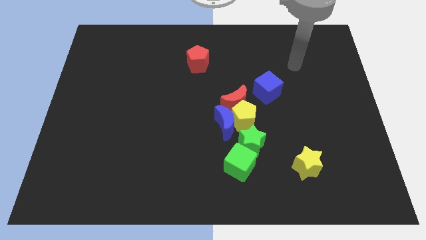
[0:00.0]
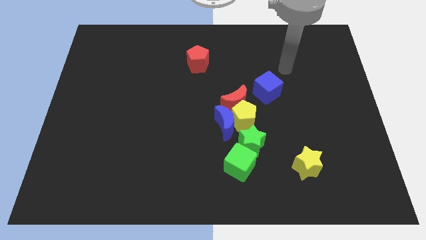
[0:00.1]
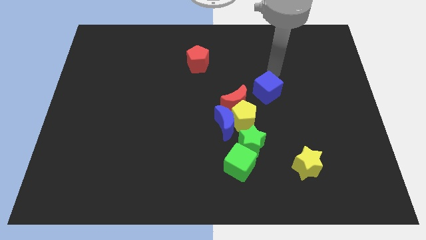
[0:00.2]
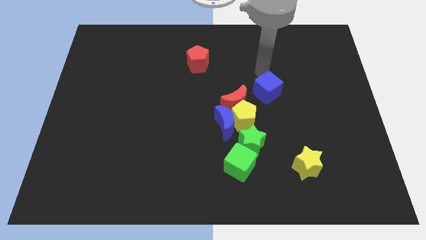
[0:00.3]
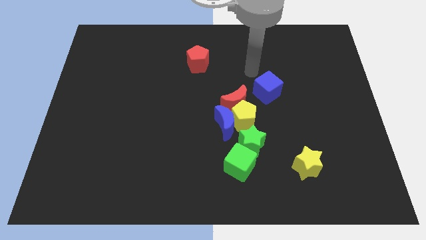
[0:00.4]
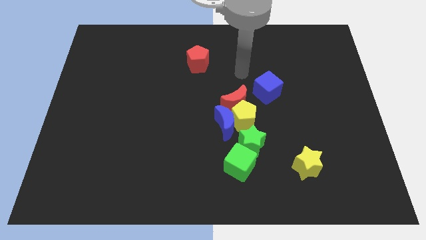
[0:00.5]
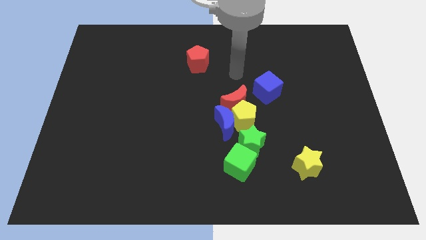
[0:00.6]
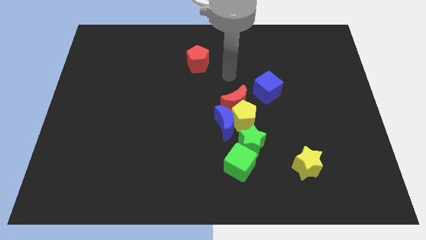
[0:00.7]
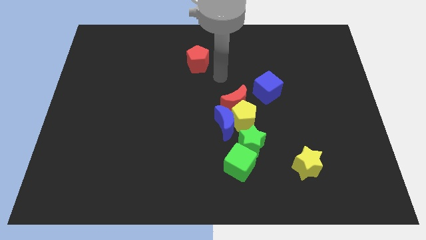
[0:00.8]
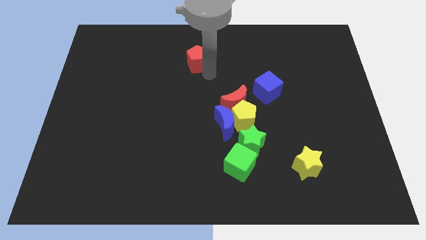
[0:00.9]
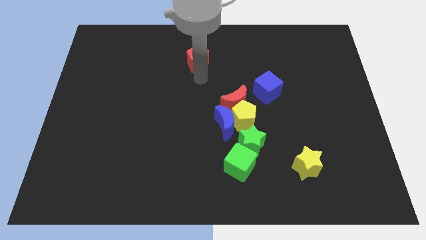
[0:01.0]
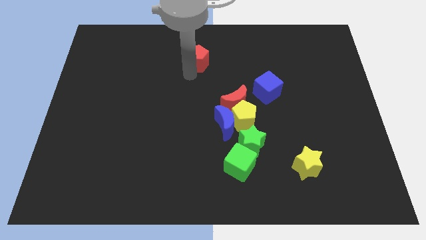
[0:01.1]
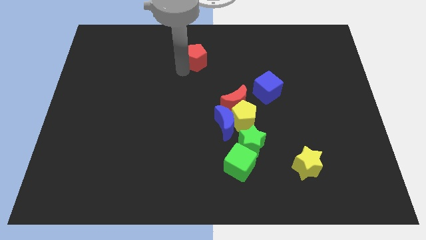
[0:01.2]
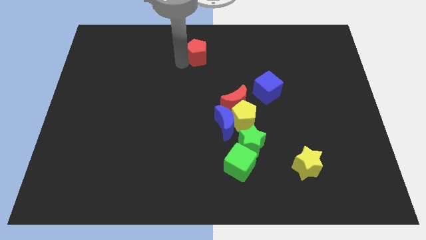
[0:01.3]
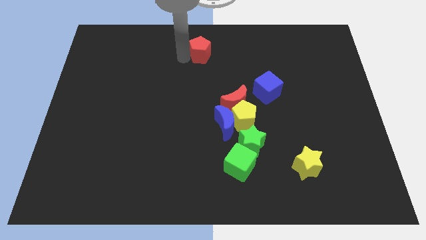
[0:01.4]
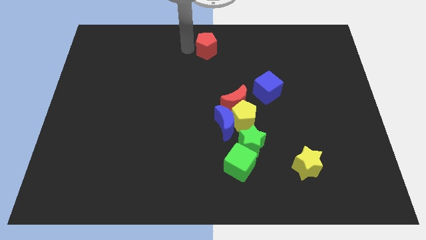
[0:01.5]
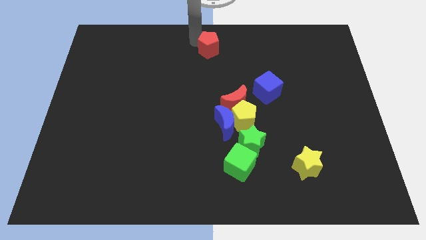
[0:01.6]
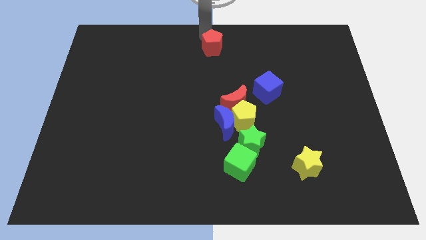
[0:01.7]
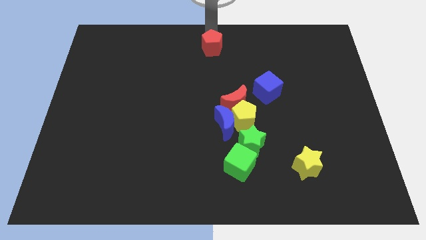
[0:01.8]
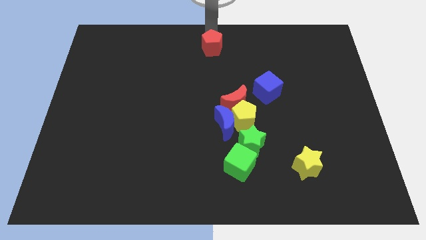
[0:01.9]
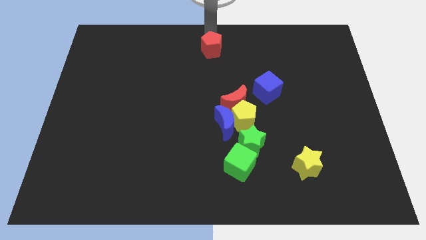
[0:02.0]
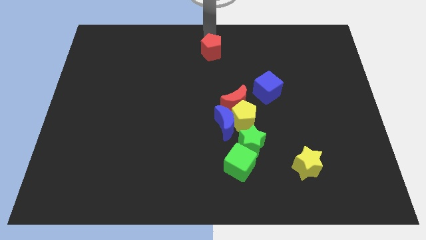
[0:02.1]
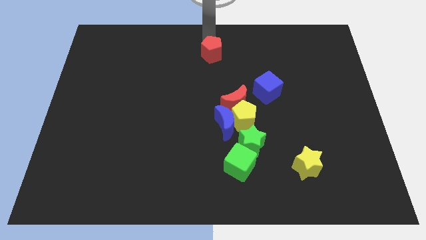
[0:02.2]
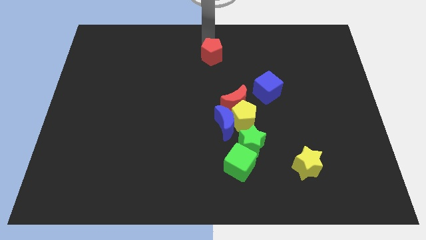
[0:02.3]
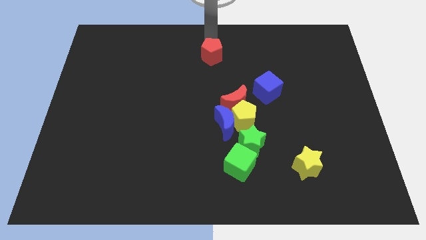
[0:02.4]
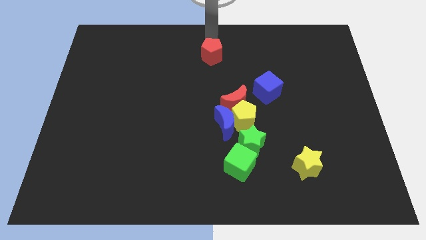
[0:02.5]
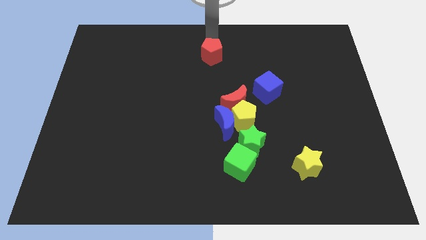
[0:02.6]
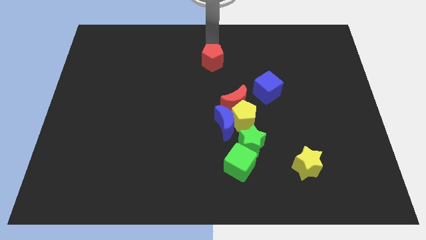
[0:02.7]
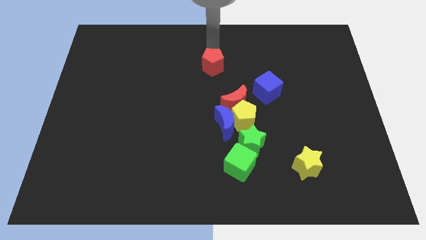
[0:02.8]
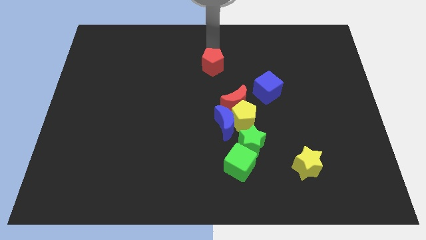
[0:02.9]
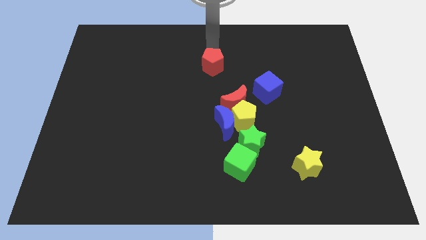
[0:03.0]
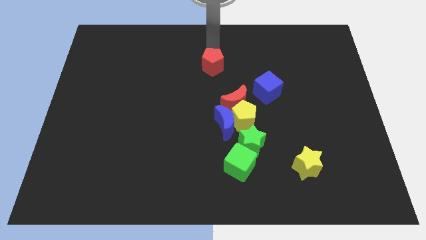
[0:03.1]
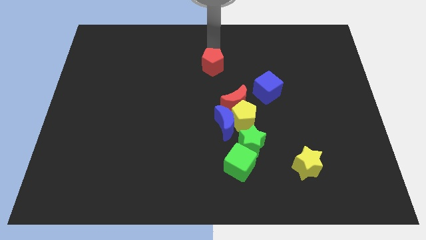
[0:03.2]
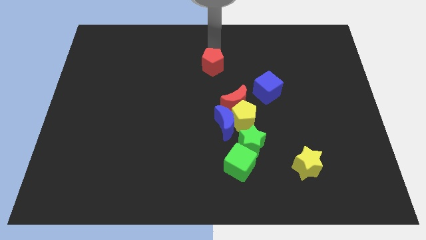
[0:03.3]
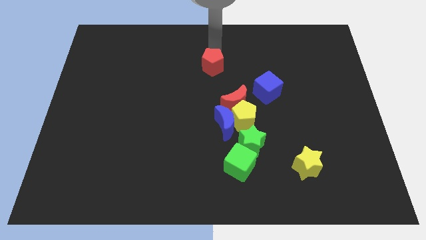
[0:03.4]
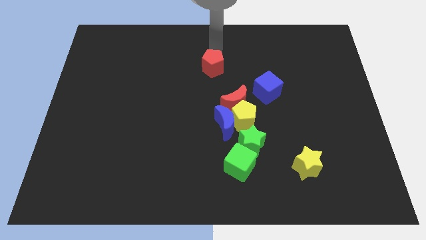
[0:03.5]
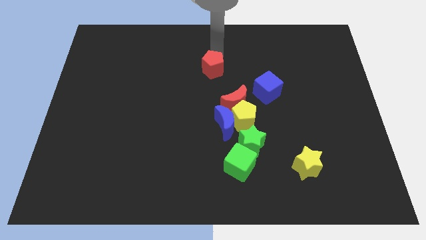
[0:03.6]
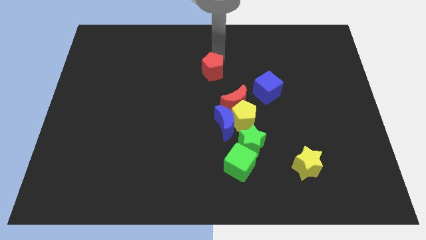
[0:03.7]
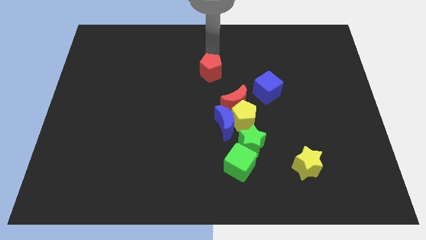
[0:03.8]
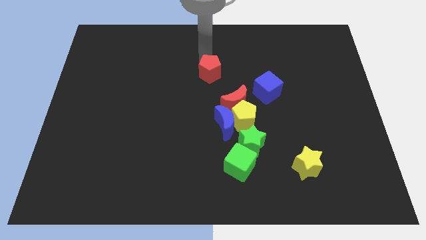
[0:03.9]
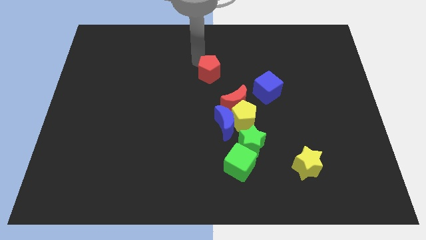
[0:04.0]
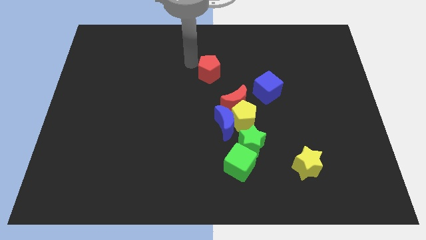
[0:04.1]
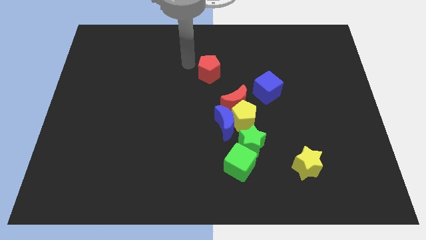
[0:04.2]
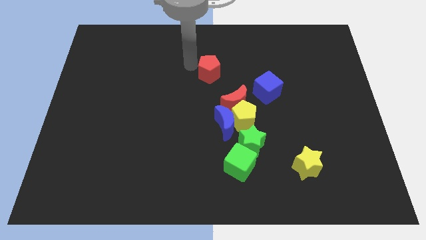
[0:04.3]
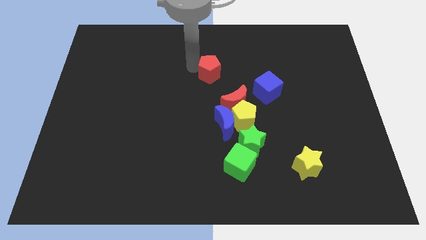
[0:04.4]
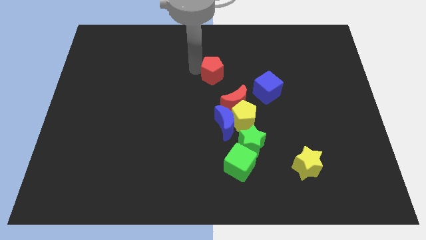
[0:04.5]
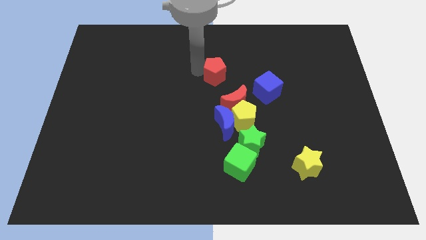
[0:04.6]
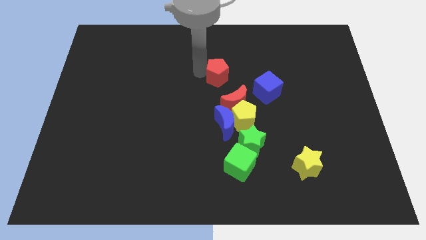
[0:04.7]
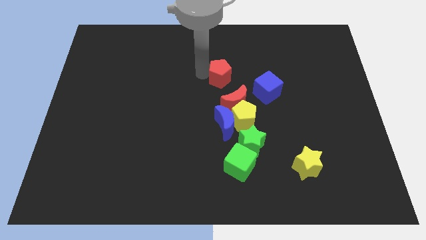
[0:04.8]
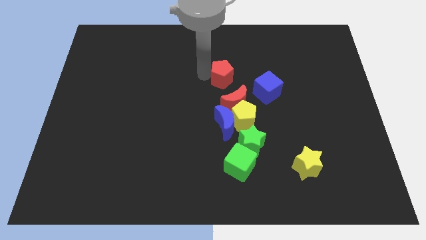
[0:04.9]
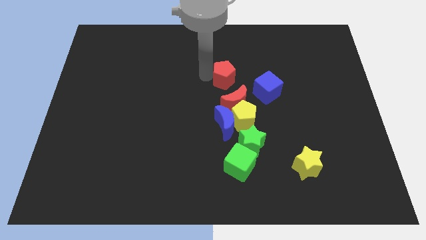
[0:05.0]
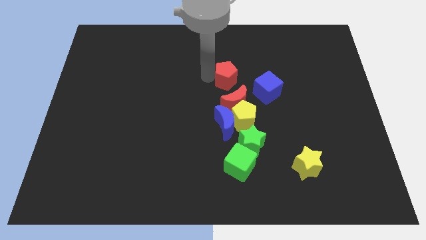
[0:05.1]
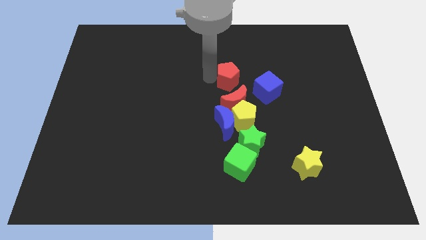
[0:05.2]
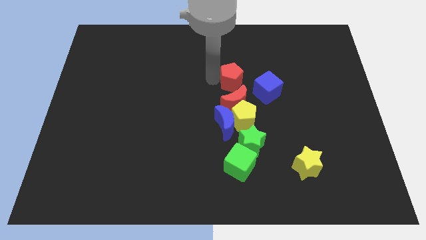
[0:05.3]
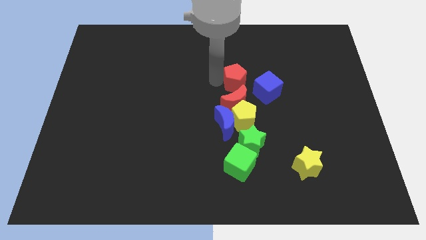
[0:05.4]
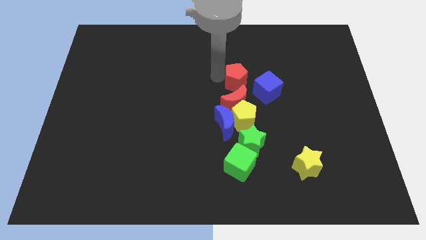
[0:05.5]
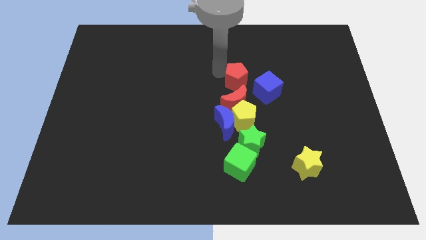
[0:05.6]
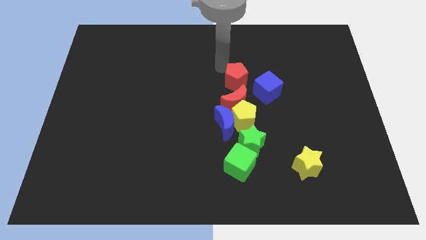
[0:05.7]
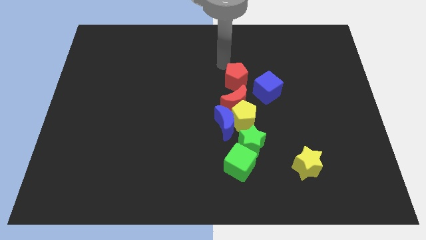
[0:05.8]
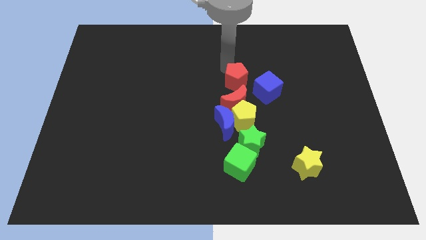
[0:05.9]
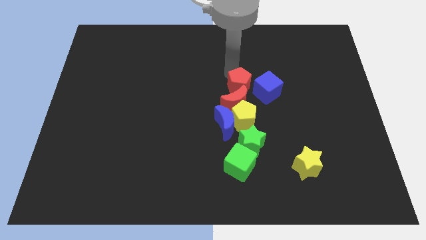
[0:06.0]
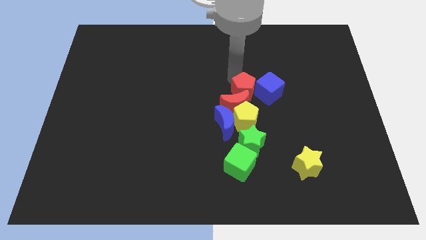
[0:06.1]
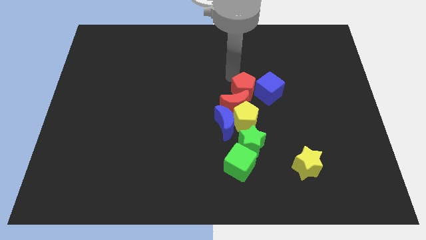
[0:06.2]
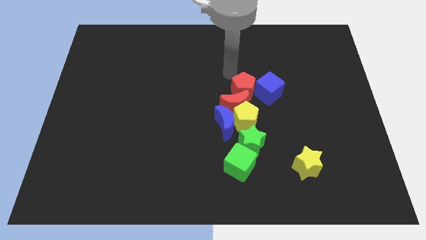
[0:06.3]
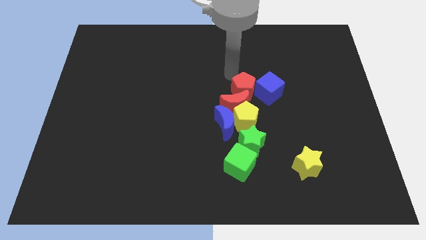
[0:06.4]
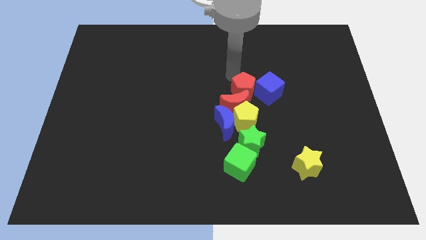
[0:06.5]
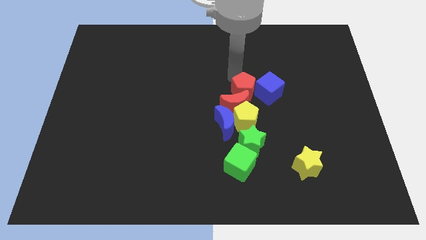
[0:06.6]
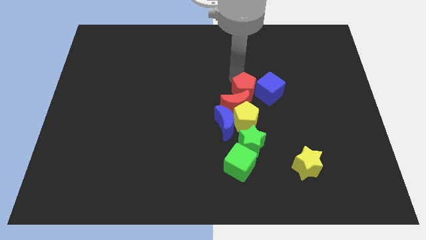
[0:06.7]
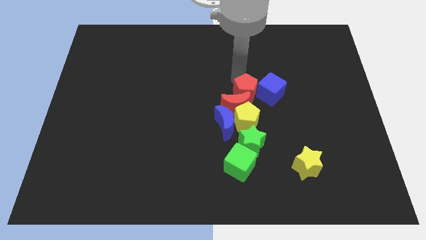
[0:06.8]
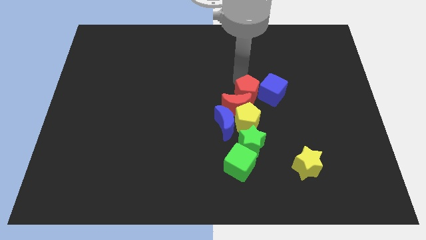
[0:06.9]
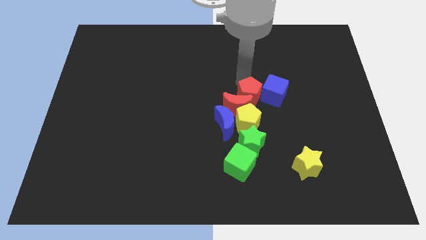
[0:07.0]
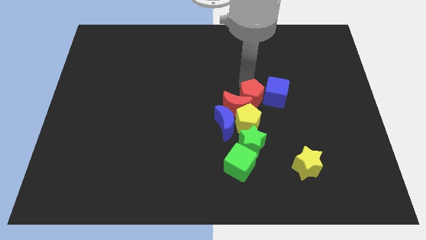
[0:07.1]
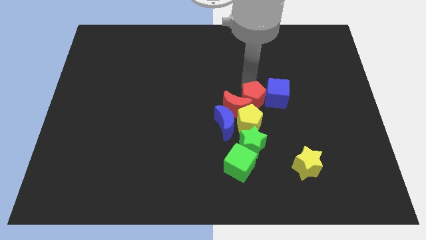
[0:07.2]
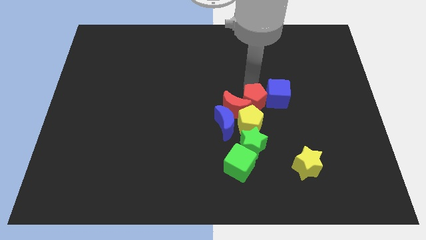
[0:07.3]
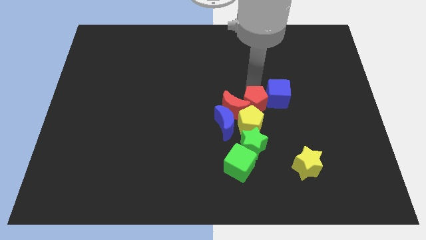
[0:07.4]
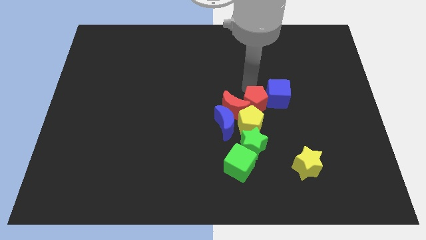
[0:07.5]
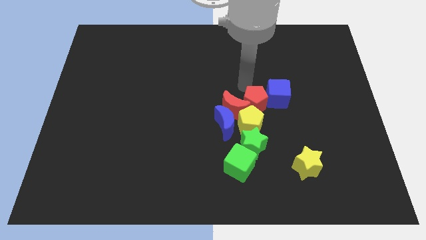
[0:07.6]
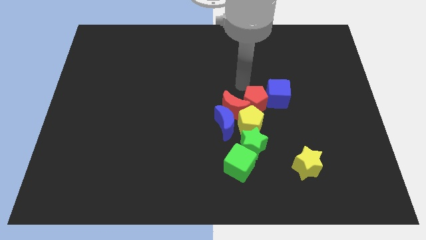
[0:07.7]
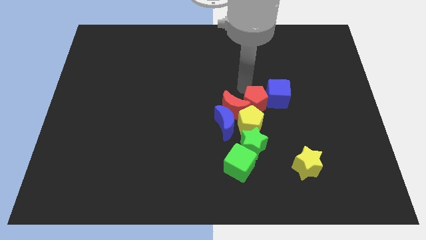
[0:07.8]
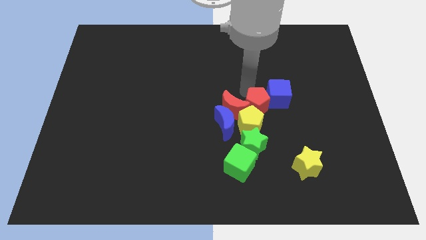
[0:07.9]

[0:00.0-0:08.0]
slide the red pentagon towards the yellow pentagon
